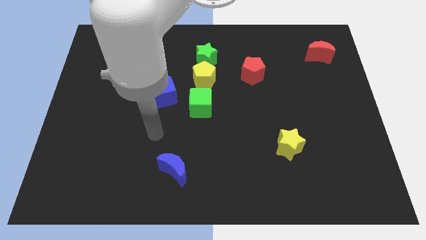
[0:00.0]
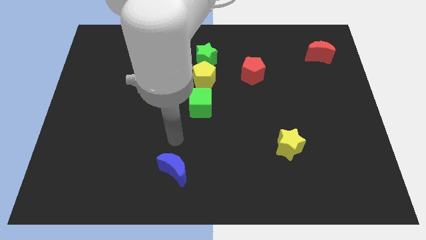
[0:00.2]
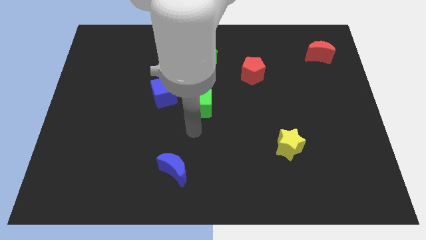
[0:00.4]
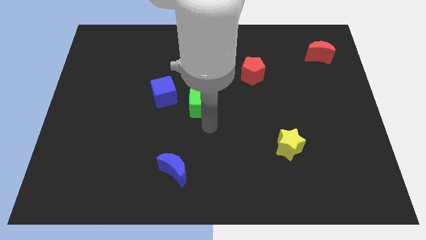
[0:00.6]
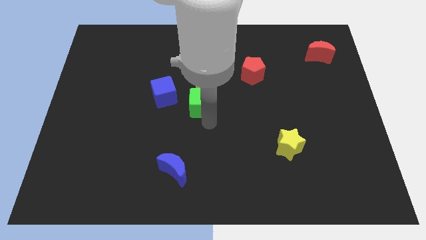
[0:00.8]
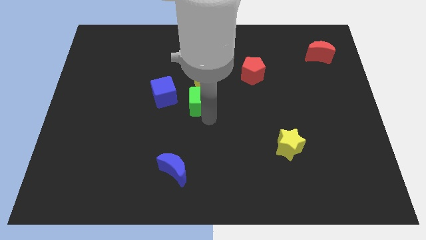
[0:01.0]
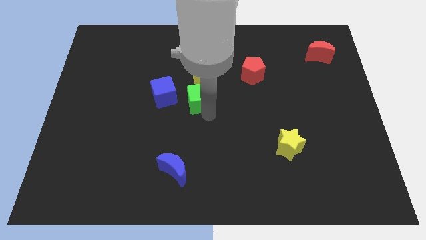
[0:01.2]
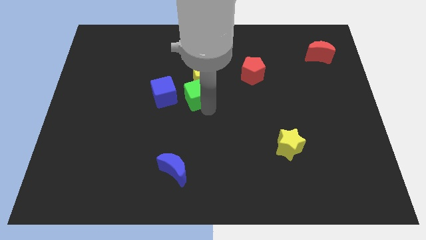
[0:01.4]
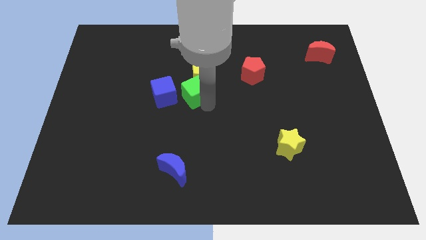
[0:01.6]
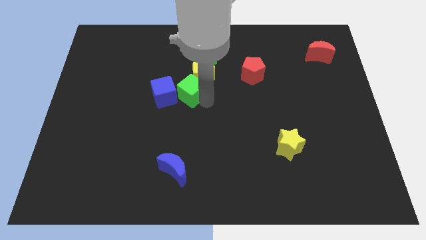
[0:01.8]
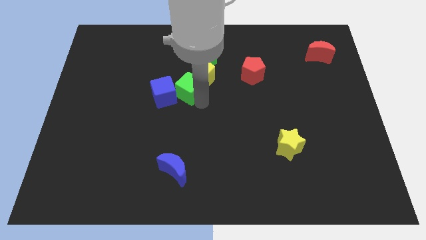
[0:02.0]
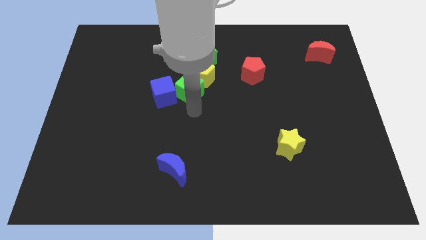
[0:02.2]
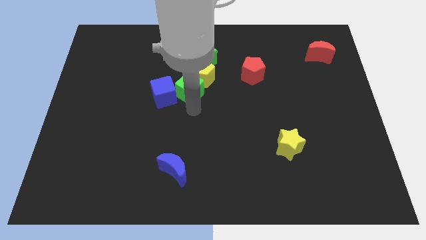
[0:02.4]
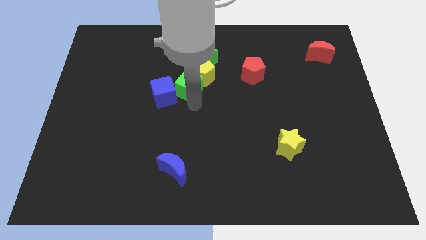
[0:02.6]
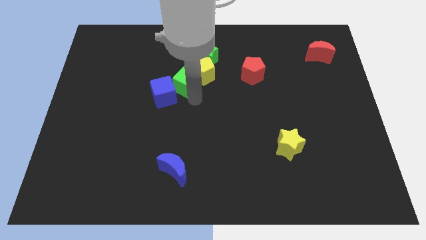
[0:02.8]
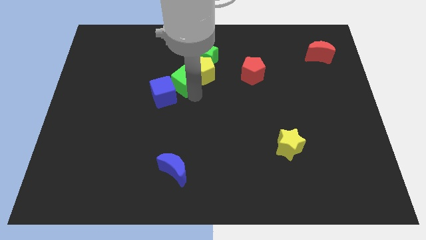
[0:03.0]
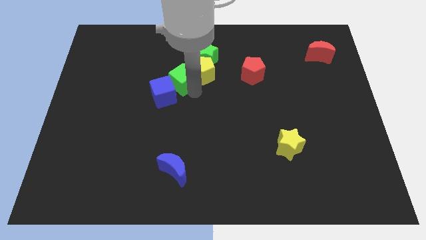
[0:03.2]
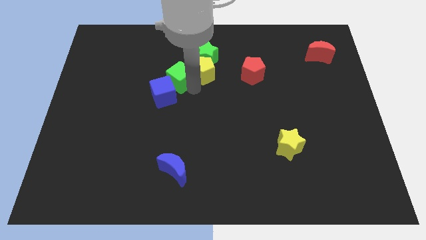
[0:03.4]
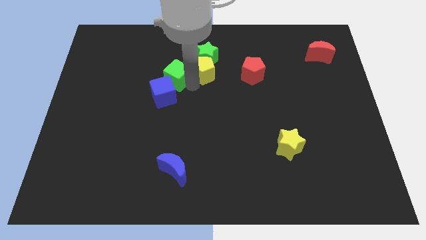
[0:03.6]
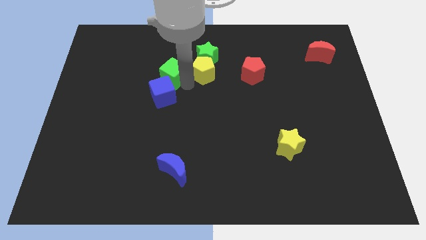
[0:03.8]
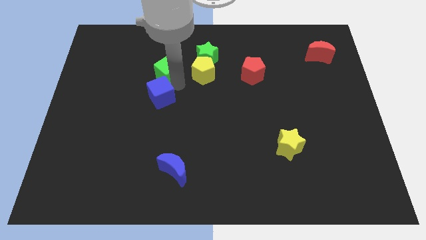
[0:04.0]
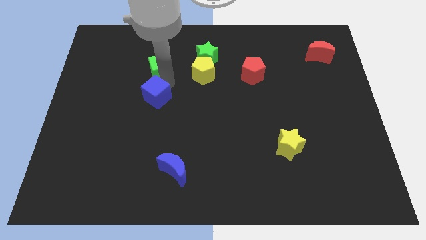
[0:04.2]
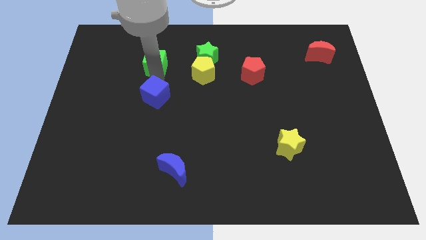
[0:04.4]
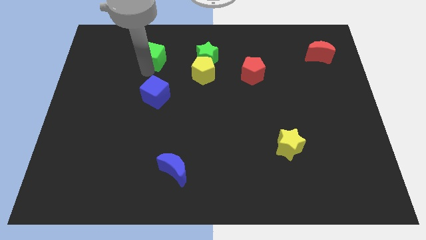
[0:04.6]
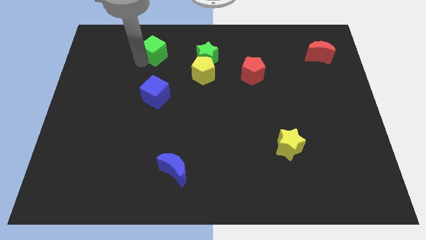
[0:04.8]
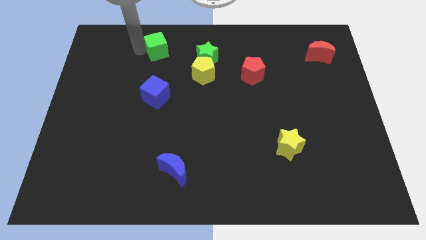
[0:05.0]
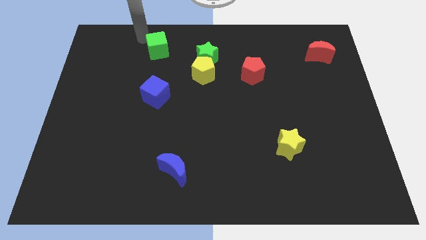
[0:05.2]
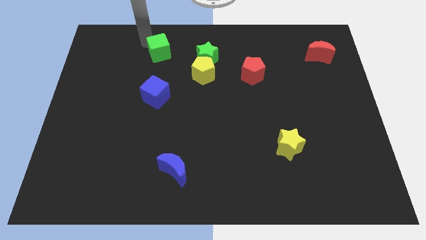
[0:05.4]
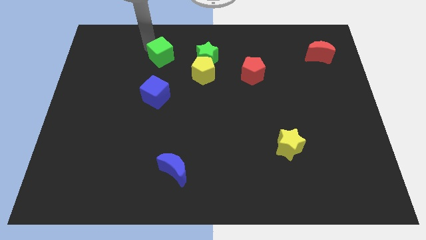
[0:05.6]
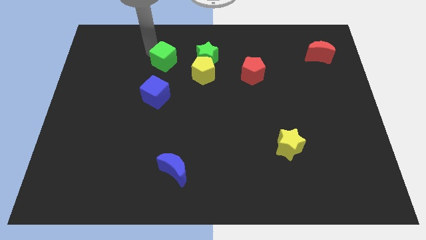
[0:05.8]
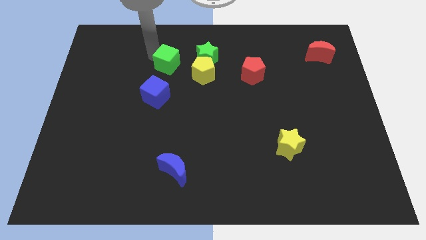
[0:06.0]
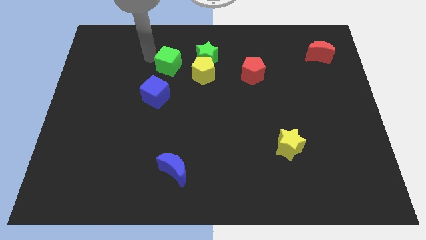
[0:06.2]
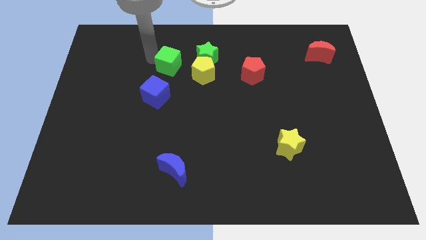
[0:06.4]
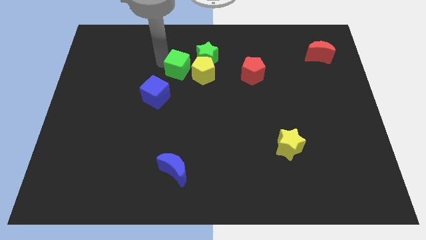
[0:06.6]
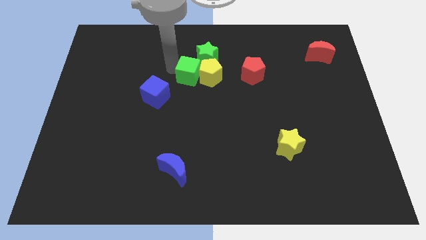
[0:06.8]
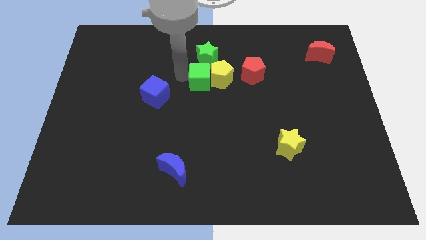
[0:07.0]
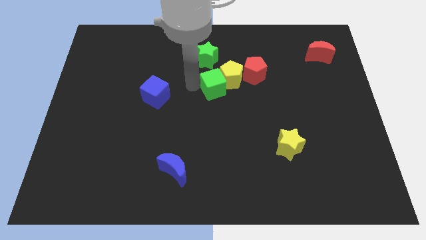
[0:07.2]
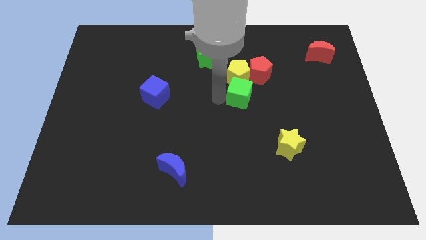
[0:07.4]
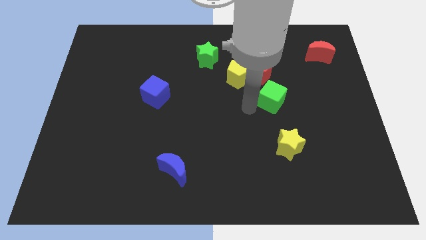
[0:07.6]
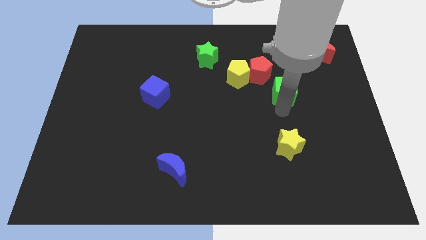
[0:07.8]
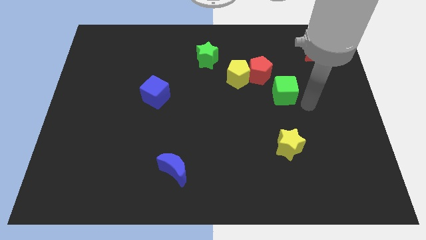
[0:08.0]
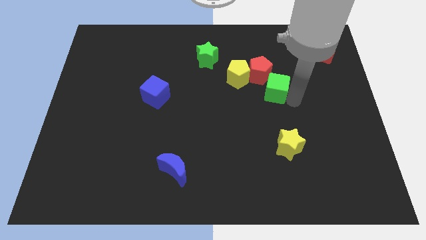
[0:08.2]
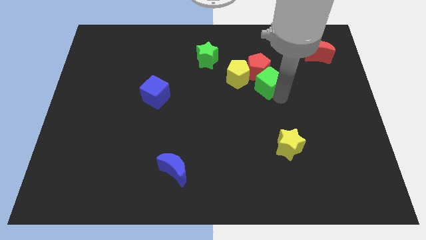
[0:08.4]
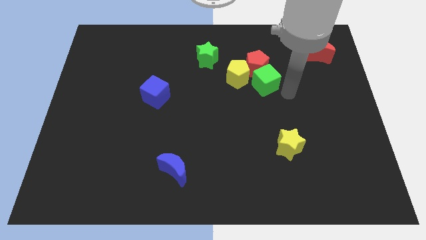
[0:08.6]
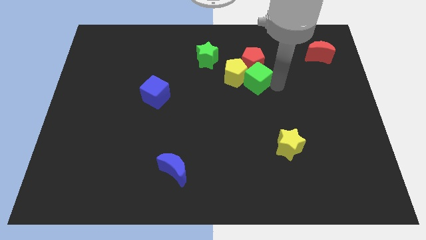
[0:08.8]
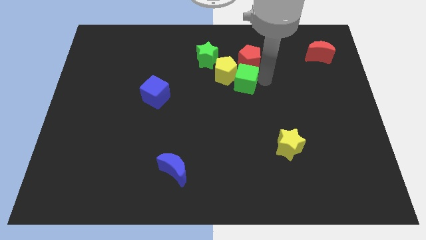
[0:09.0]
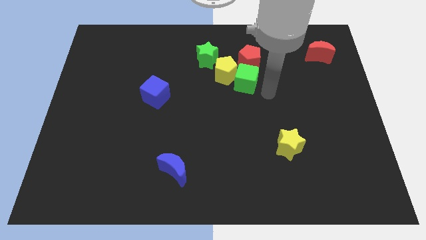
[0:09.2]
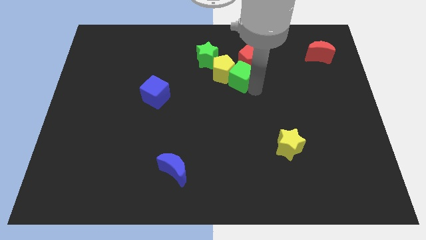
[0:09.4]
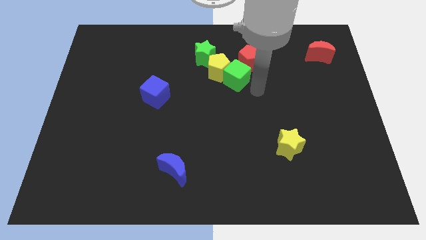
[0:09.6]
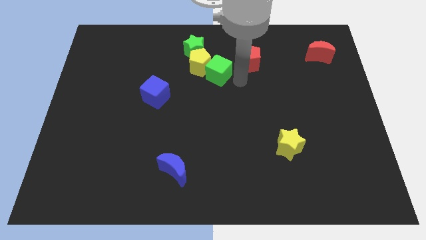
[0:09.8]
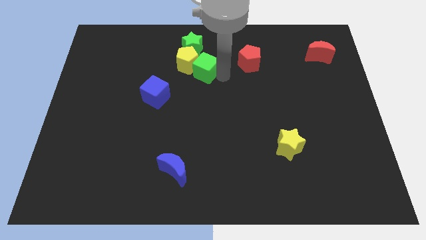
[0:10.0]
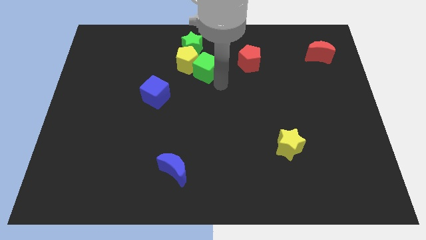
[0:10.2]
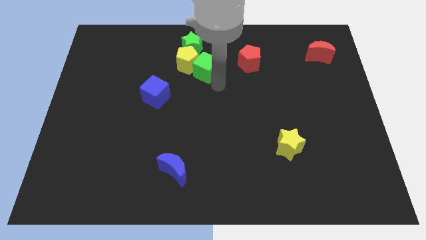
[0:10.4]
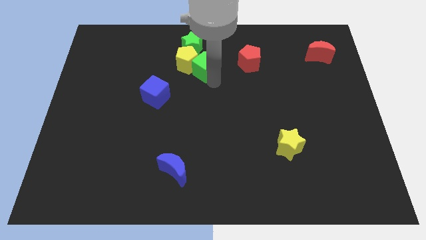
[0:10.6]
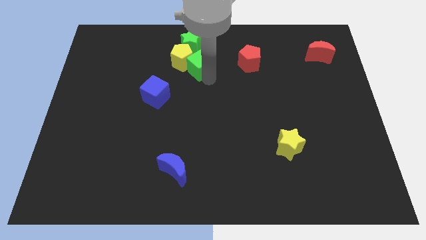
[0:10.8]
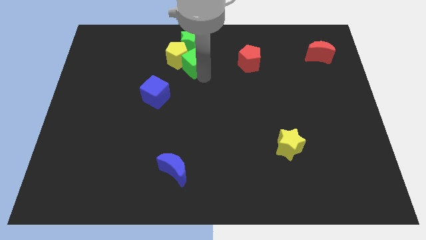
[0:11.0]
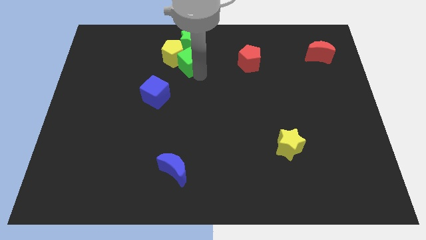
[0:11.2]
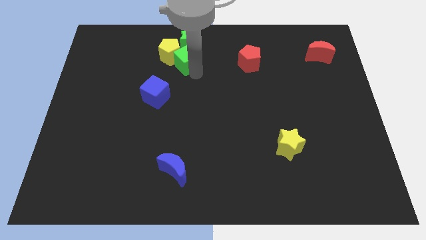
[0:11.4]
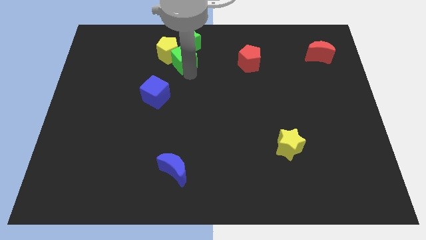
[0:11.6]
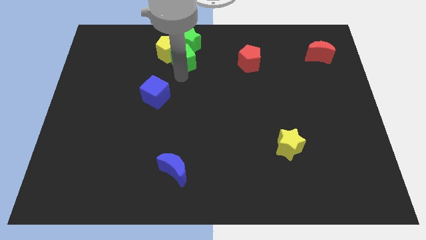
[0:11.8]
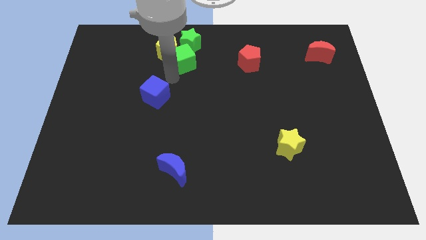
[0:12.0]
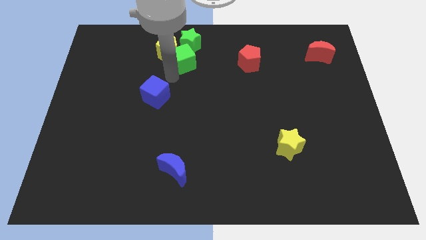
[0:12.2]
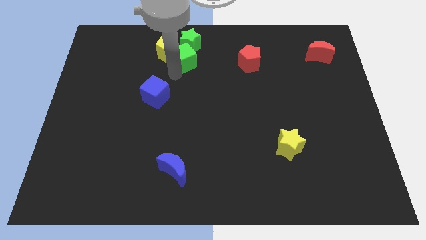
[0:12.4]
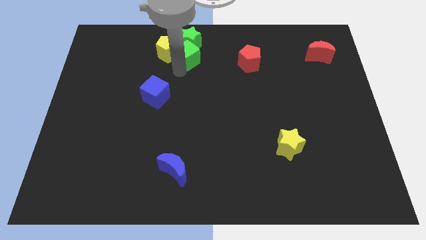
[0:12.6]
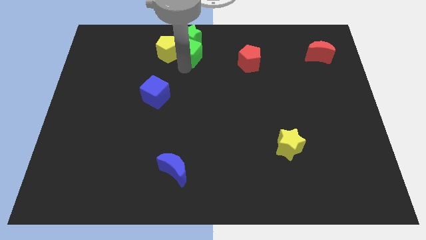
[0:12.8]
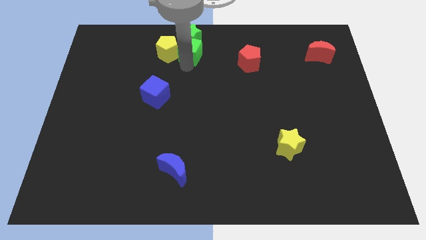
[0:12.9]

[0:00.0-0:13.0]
slide the green cube to the top side

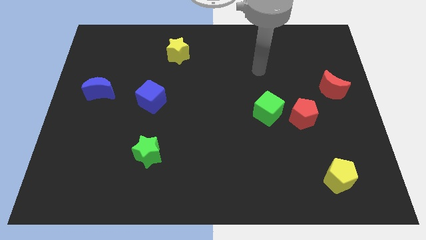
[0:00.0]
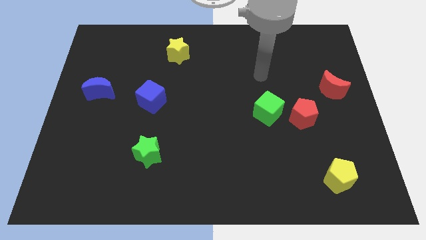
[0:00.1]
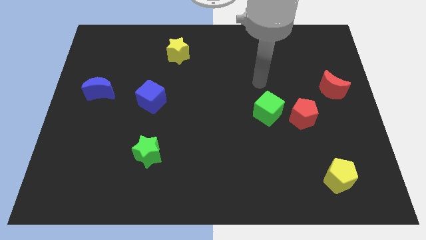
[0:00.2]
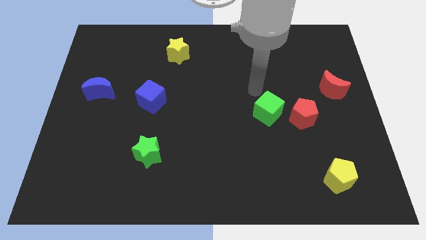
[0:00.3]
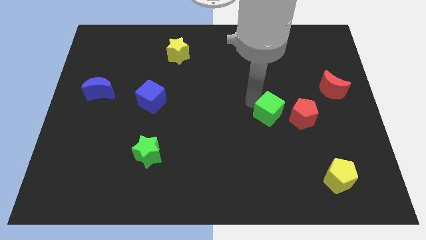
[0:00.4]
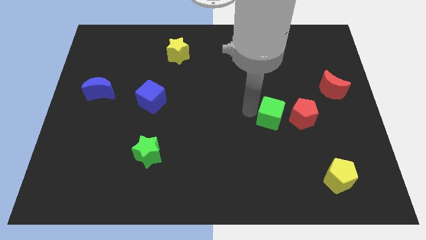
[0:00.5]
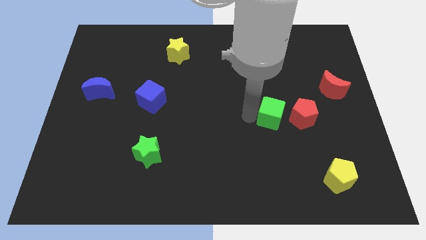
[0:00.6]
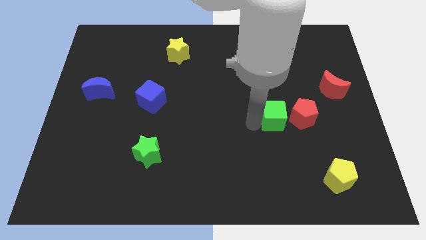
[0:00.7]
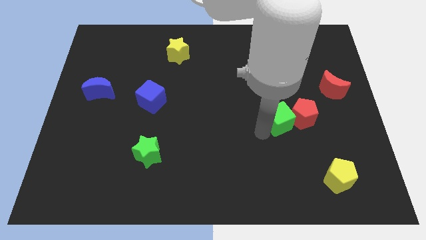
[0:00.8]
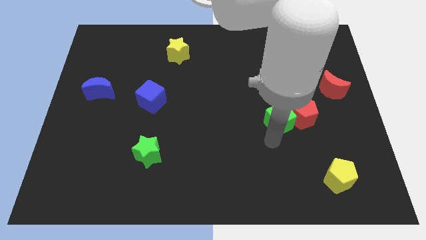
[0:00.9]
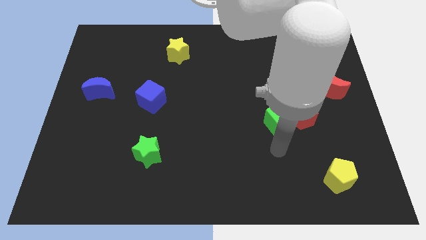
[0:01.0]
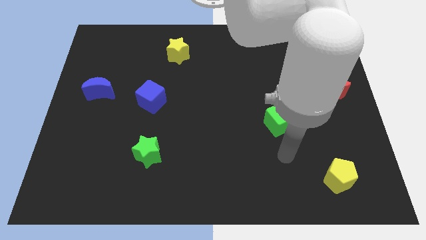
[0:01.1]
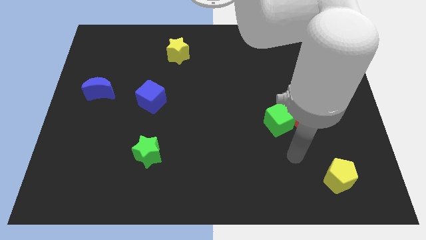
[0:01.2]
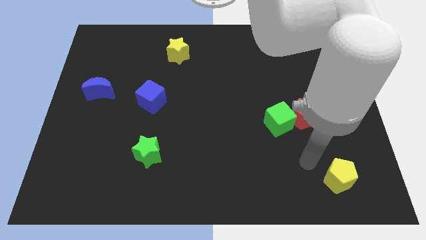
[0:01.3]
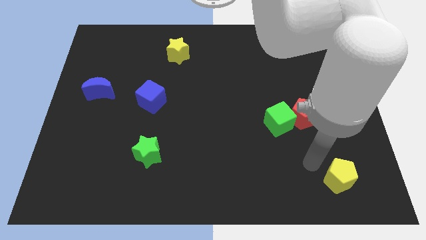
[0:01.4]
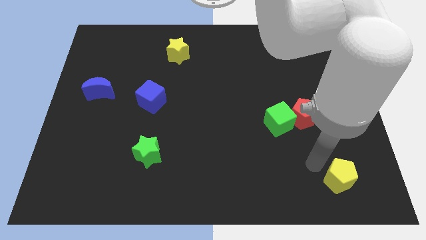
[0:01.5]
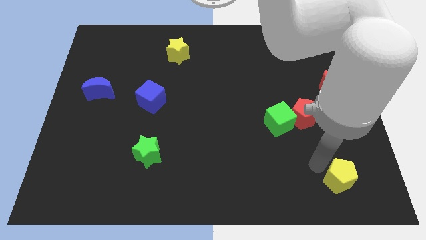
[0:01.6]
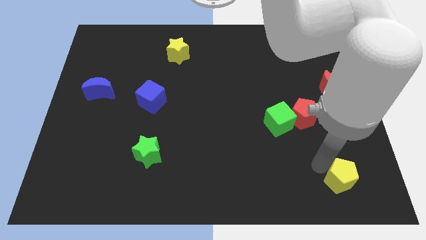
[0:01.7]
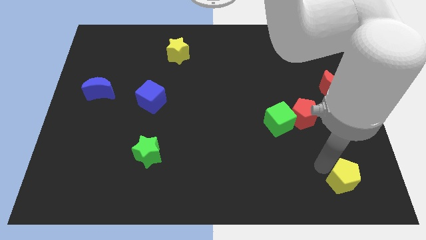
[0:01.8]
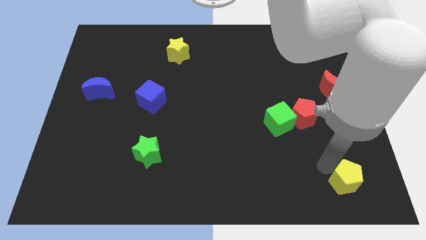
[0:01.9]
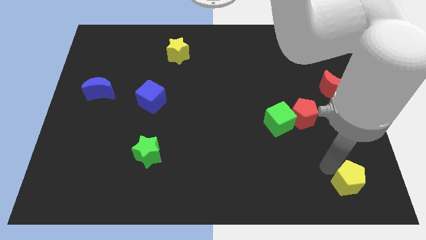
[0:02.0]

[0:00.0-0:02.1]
move the yellow pentagon to the lower right corner
